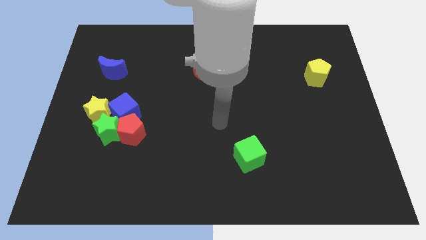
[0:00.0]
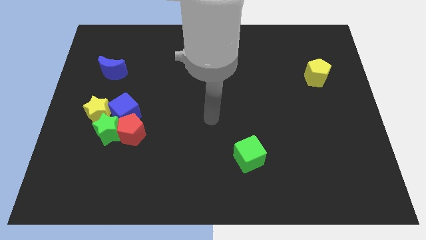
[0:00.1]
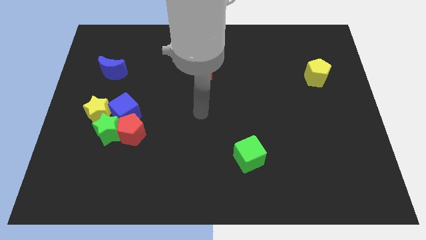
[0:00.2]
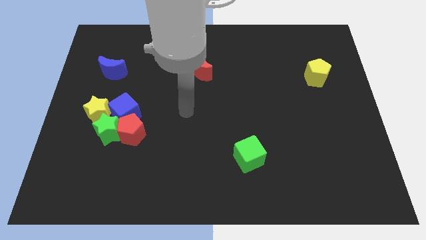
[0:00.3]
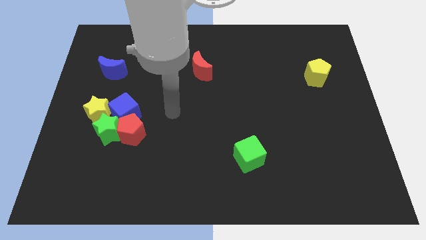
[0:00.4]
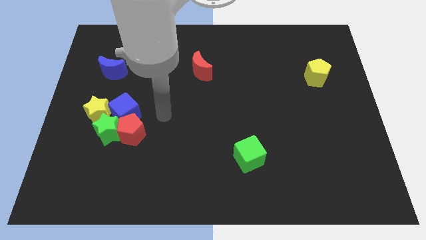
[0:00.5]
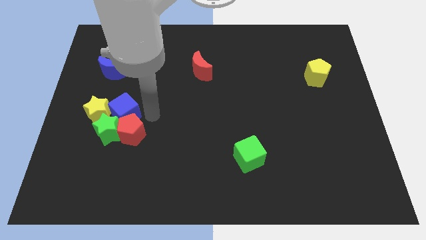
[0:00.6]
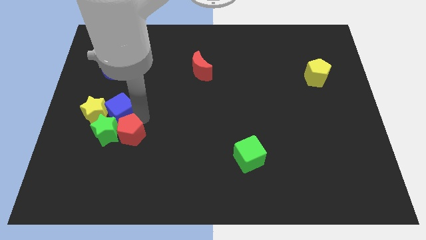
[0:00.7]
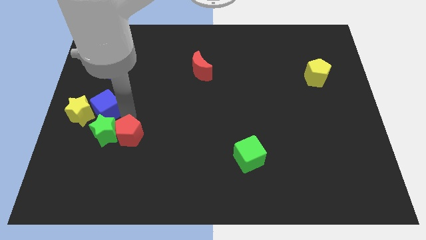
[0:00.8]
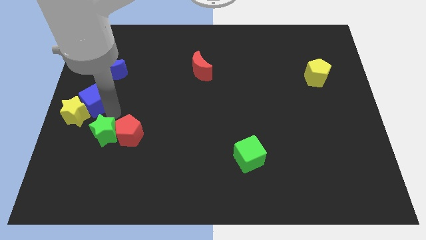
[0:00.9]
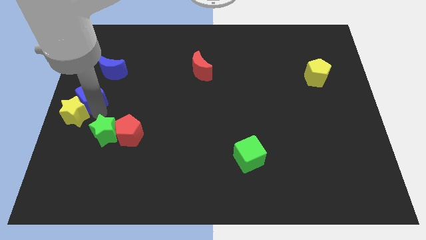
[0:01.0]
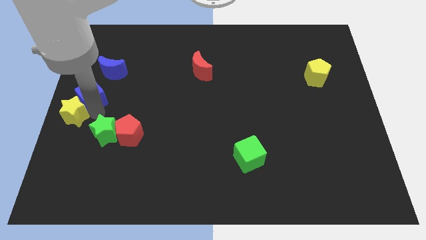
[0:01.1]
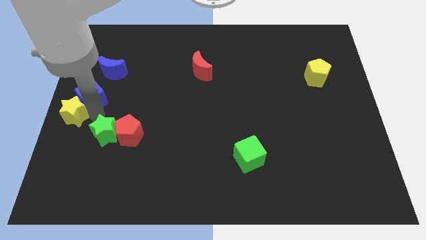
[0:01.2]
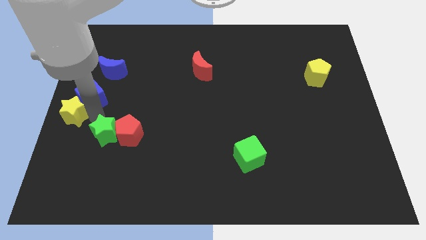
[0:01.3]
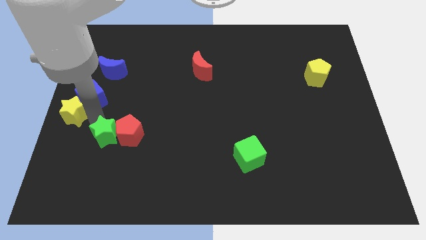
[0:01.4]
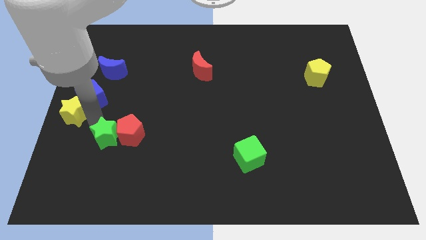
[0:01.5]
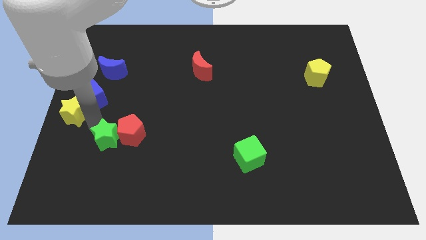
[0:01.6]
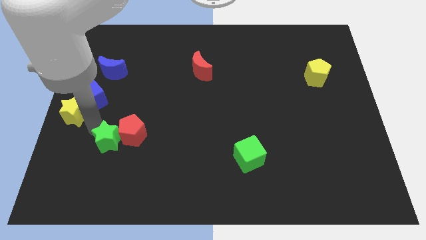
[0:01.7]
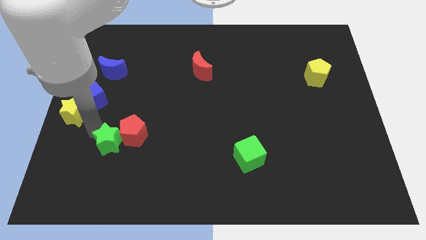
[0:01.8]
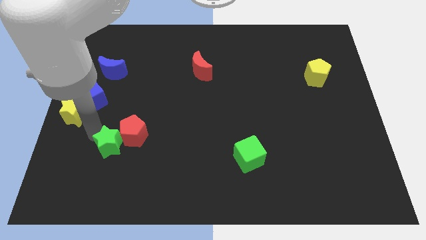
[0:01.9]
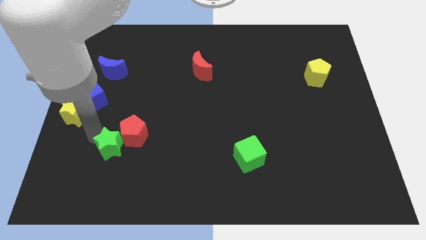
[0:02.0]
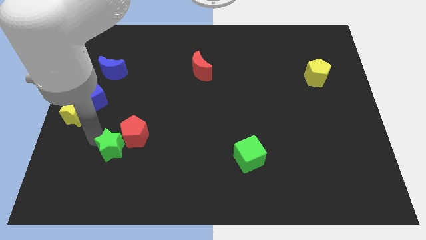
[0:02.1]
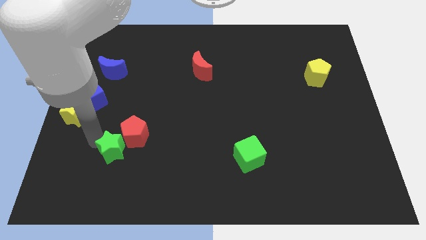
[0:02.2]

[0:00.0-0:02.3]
move the green star away from the red pentagon, yellow star, and blue cube

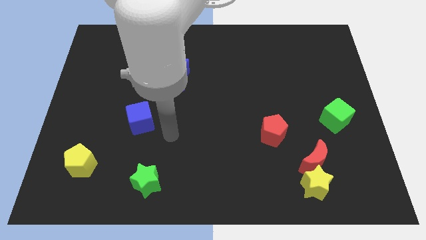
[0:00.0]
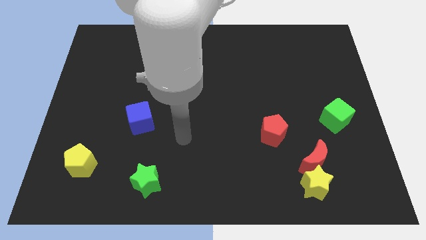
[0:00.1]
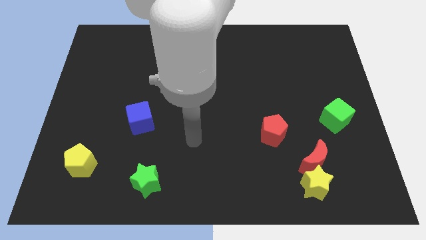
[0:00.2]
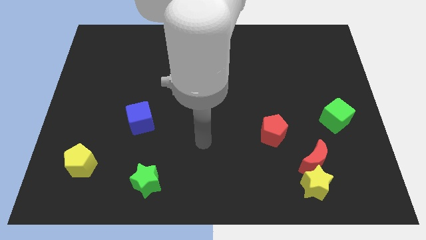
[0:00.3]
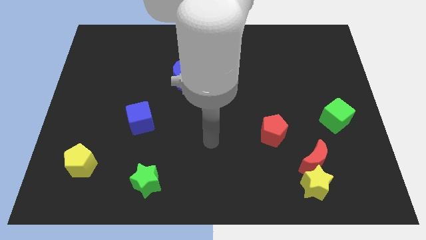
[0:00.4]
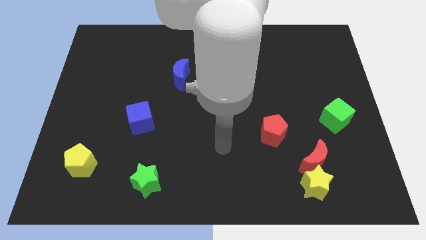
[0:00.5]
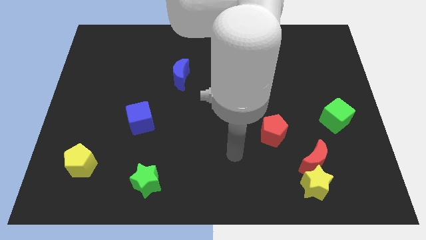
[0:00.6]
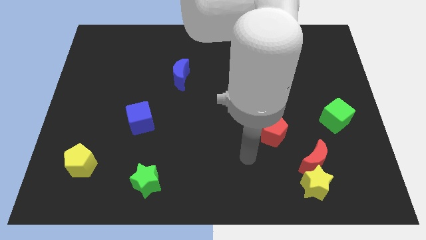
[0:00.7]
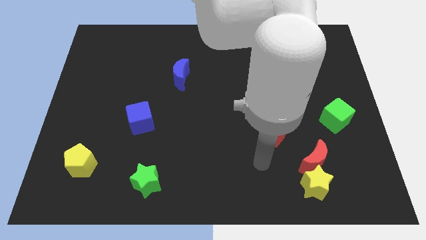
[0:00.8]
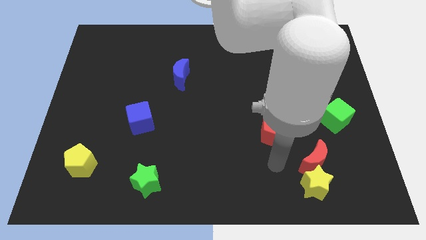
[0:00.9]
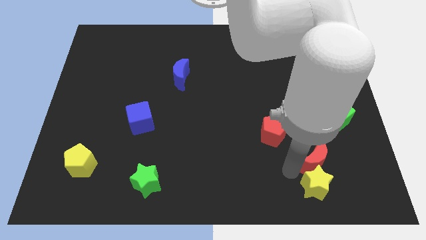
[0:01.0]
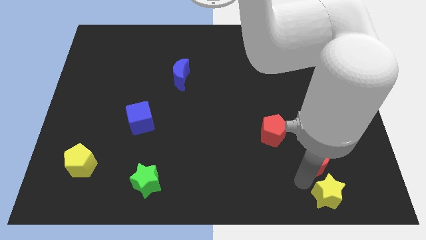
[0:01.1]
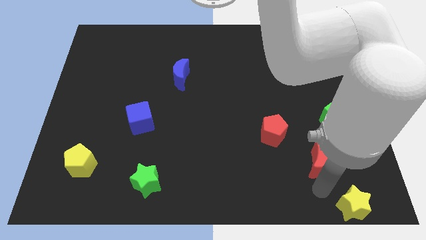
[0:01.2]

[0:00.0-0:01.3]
move the red moon away from the yellow star

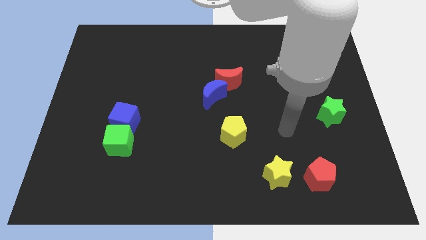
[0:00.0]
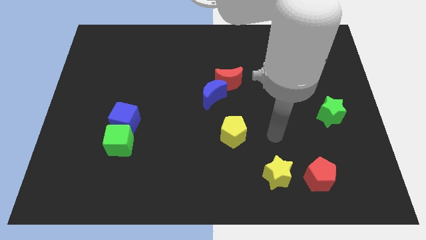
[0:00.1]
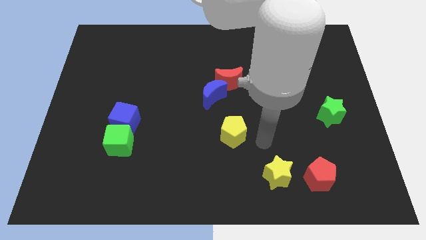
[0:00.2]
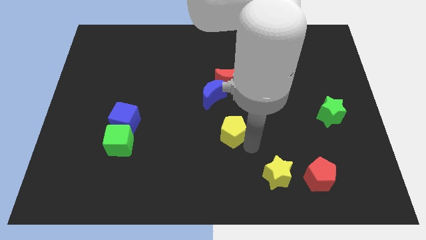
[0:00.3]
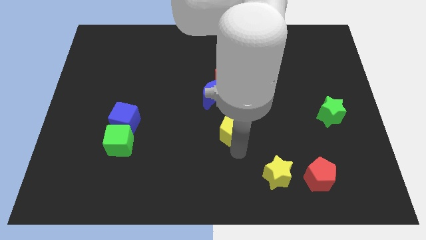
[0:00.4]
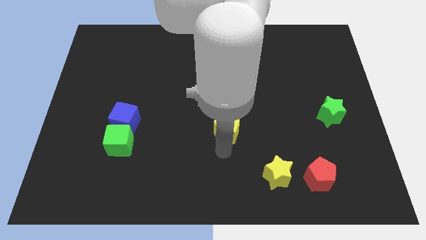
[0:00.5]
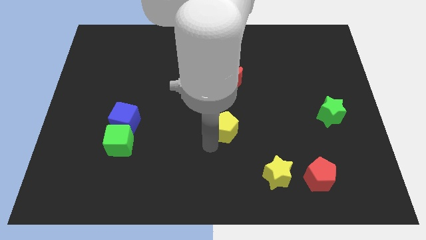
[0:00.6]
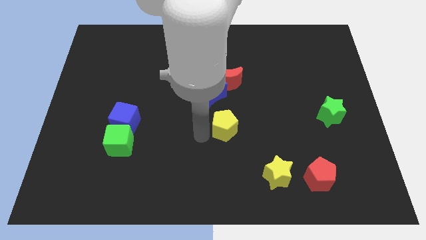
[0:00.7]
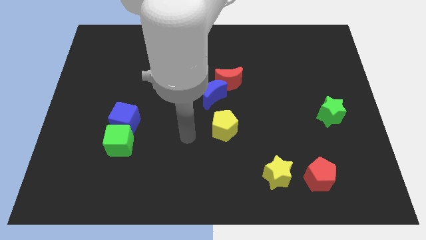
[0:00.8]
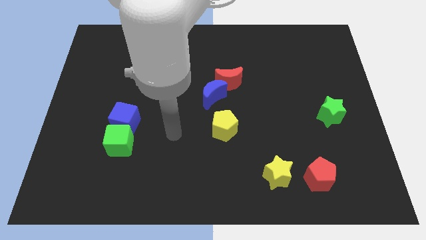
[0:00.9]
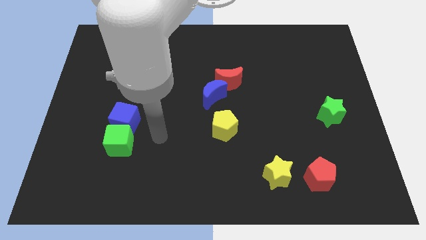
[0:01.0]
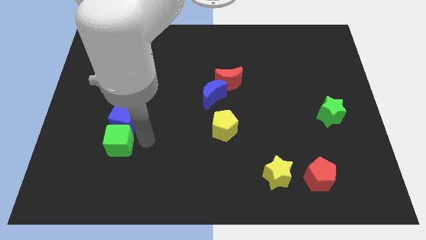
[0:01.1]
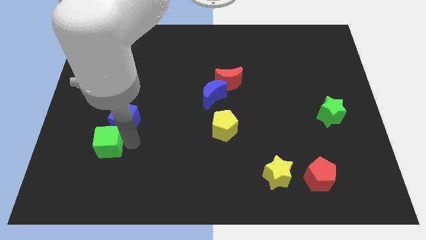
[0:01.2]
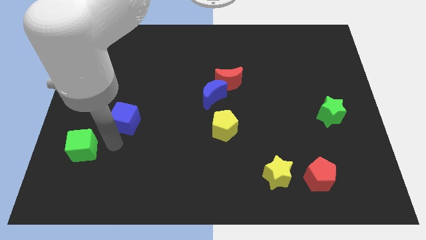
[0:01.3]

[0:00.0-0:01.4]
move the blue cube away from the green cube

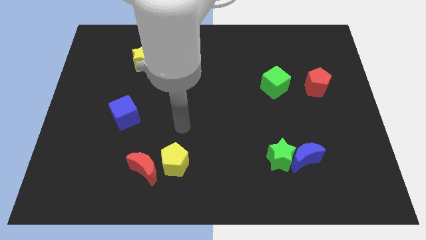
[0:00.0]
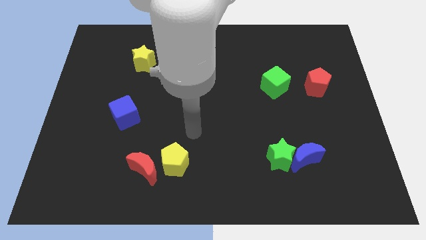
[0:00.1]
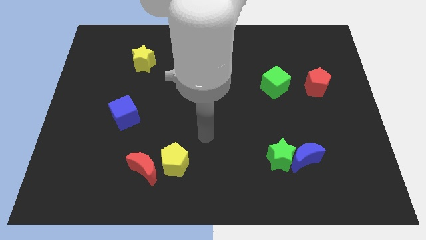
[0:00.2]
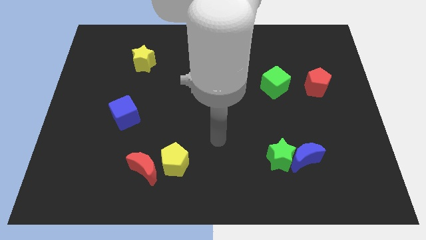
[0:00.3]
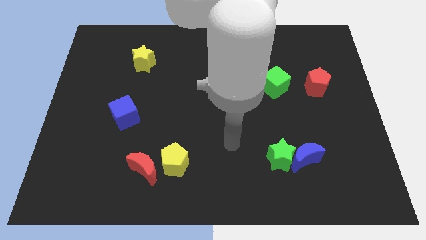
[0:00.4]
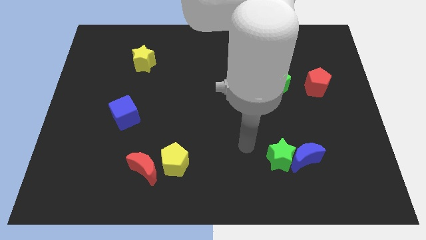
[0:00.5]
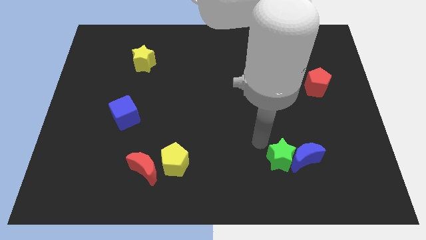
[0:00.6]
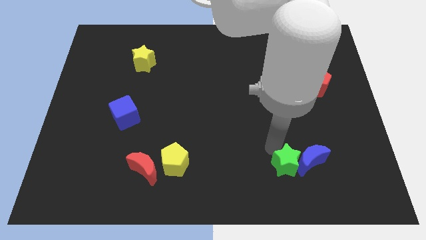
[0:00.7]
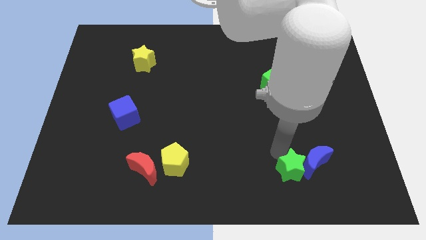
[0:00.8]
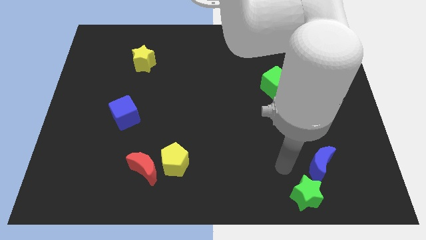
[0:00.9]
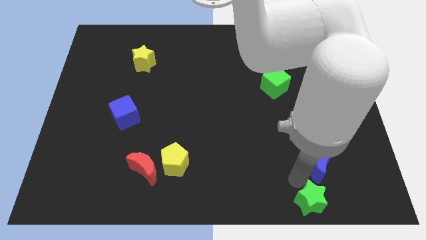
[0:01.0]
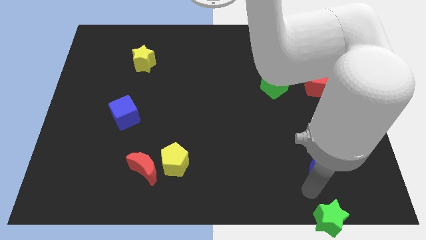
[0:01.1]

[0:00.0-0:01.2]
pull the blue moon apart from the green star

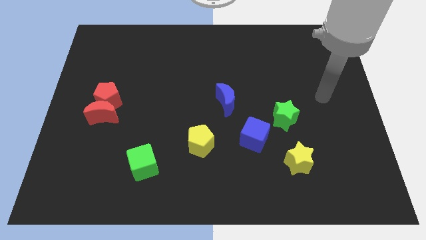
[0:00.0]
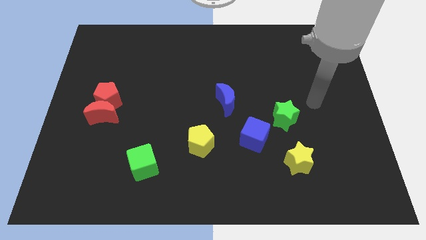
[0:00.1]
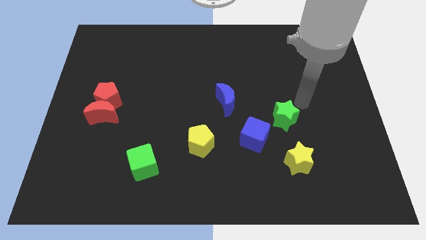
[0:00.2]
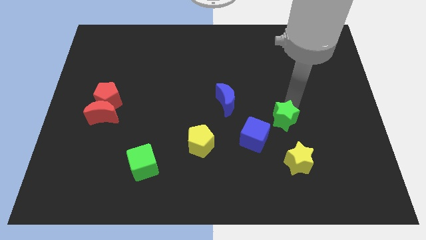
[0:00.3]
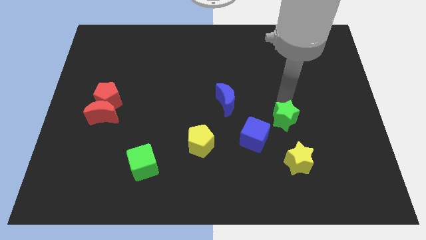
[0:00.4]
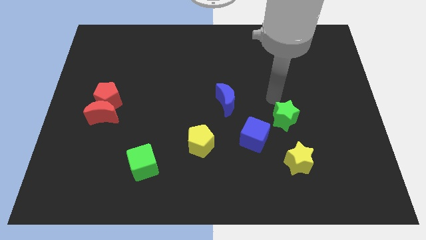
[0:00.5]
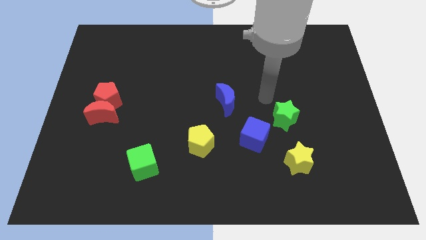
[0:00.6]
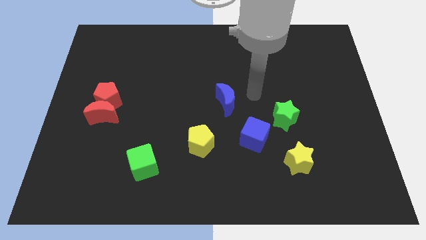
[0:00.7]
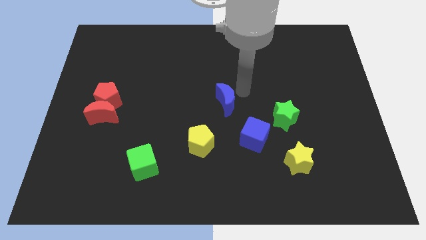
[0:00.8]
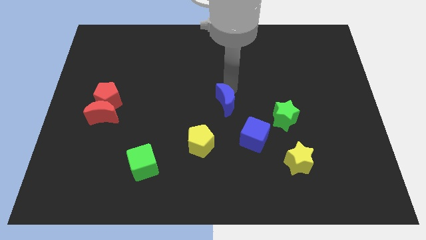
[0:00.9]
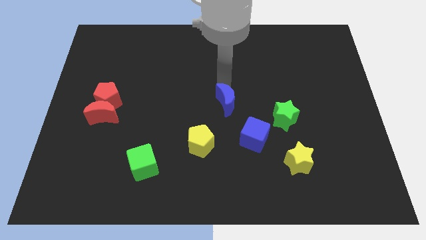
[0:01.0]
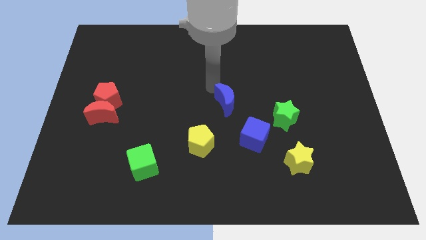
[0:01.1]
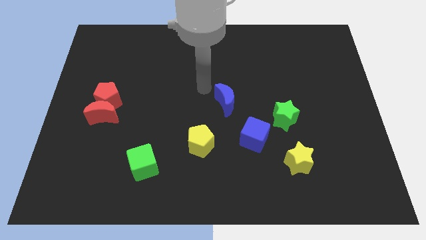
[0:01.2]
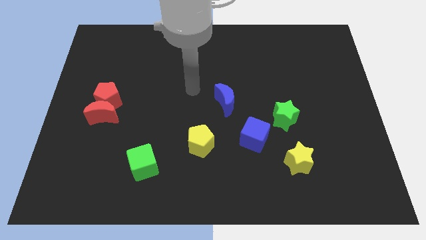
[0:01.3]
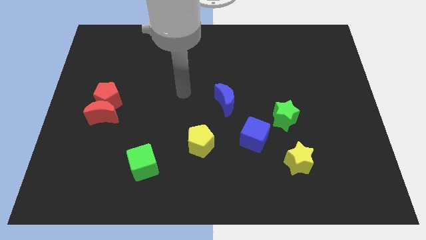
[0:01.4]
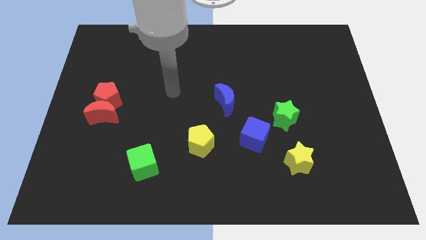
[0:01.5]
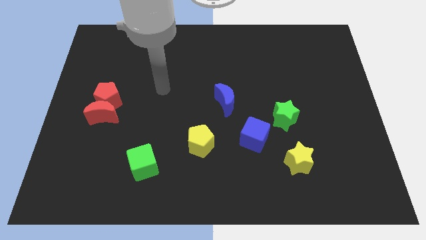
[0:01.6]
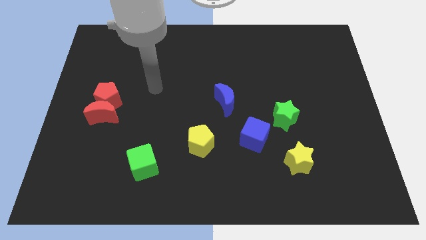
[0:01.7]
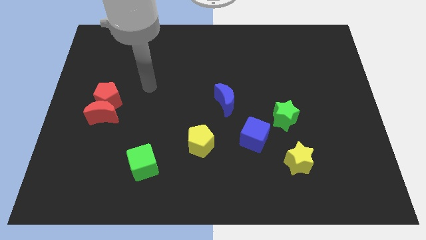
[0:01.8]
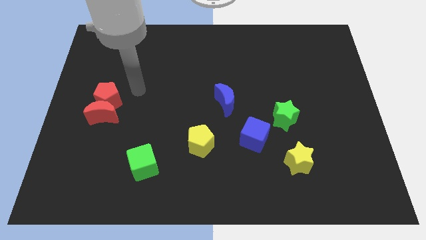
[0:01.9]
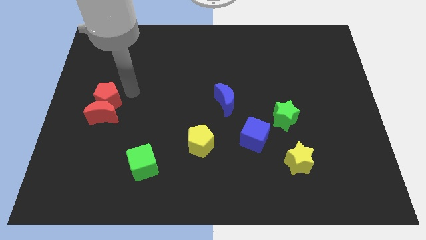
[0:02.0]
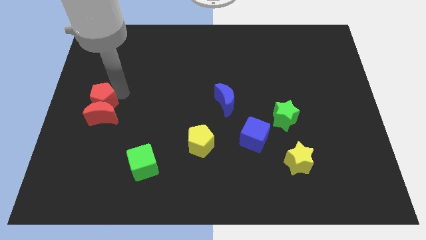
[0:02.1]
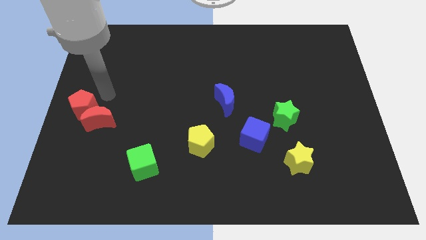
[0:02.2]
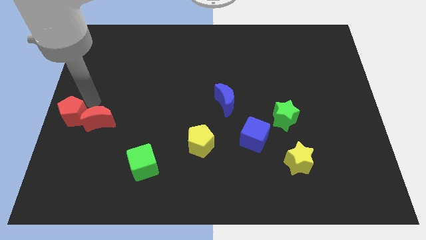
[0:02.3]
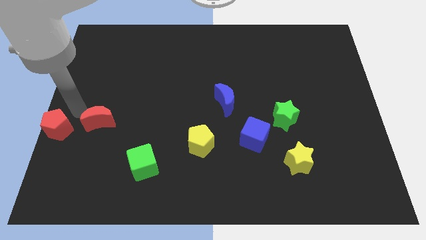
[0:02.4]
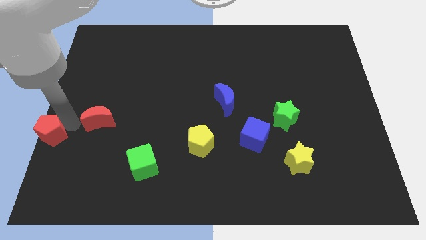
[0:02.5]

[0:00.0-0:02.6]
pull the red moon apart from the red pentagon

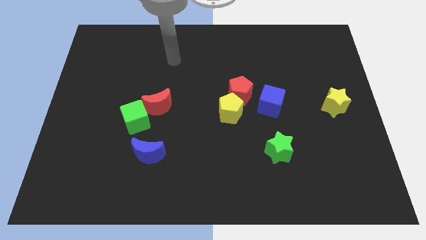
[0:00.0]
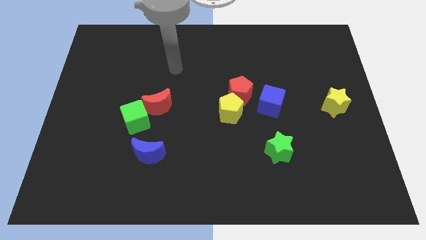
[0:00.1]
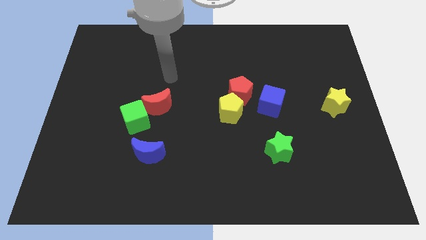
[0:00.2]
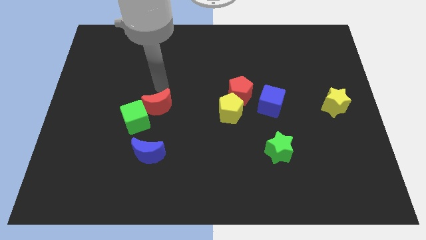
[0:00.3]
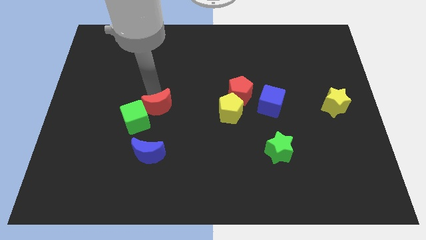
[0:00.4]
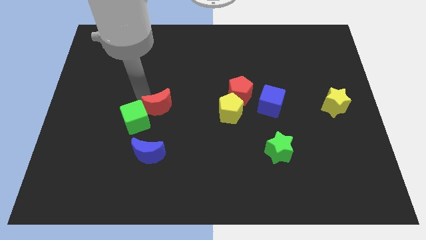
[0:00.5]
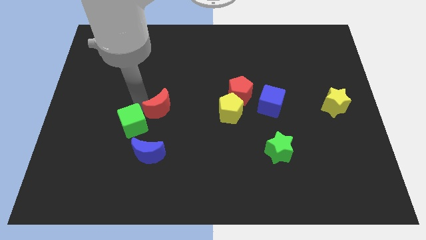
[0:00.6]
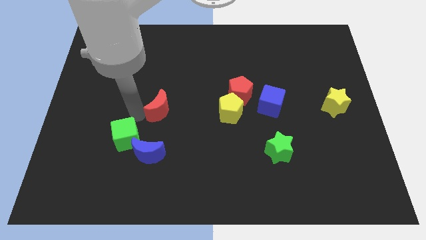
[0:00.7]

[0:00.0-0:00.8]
move the red moon away from the green cube
